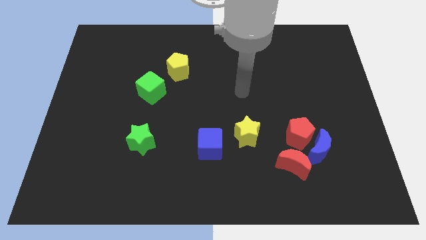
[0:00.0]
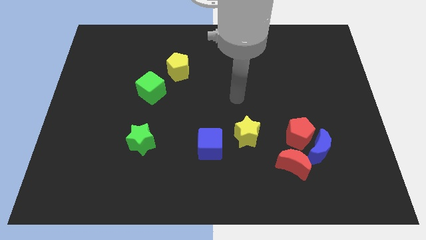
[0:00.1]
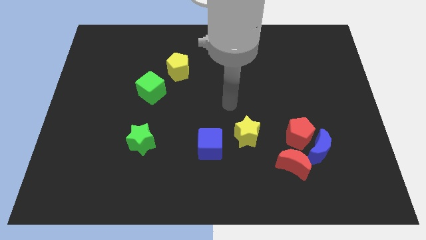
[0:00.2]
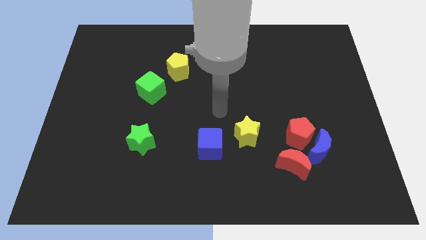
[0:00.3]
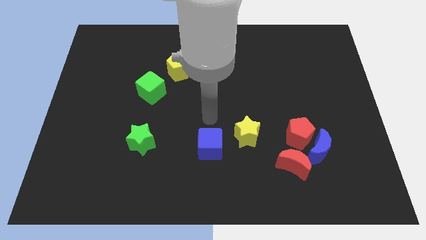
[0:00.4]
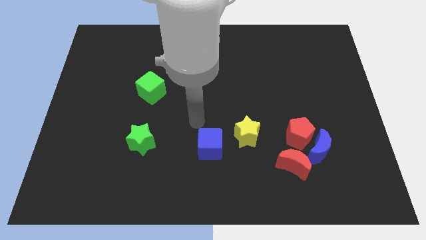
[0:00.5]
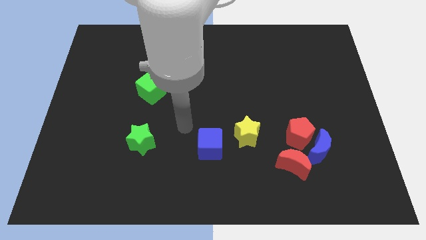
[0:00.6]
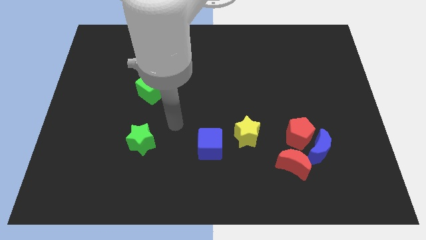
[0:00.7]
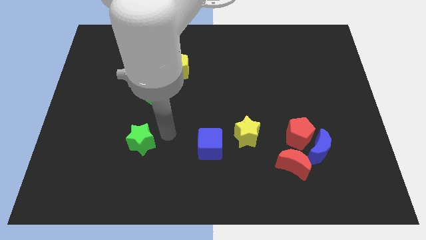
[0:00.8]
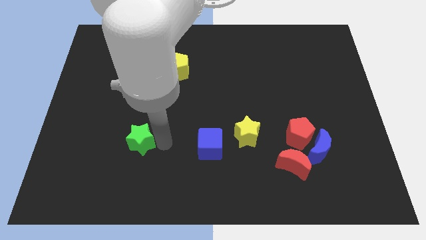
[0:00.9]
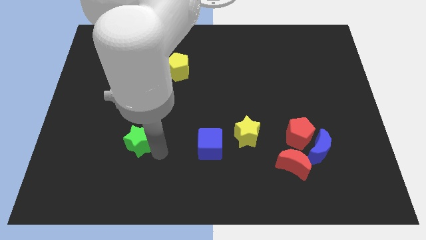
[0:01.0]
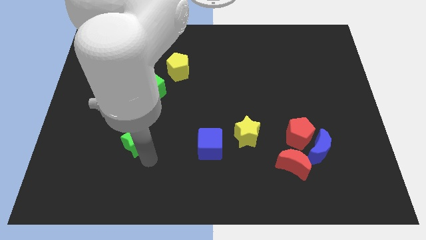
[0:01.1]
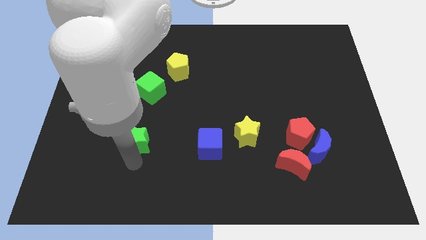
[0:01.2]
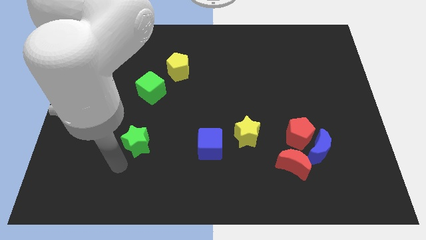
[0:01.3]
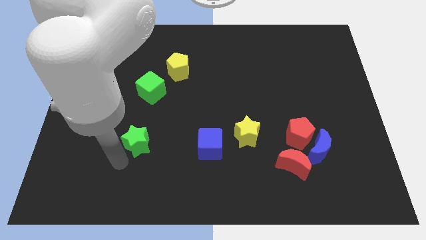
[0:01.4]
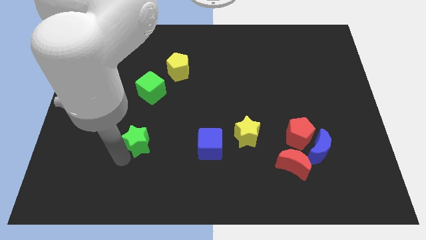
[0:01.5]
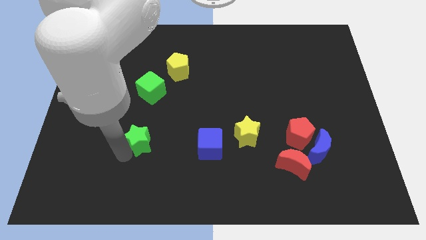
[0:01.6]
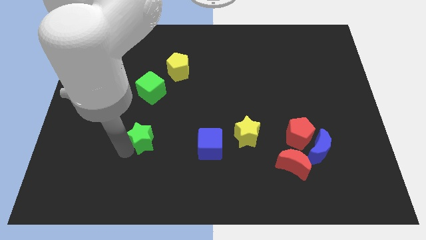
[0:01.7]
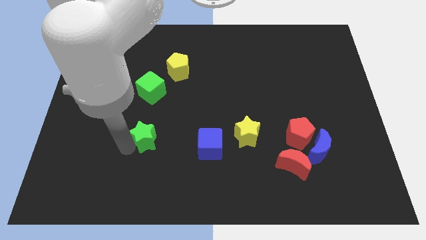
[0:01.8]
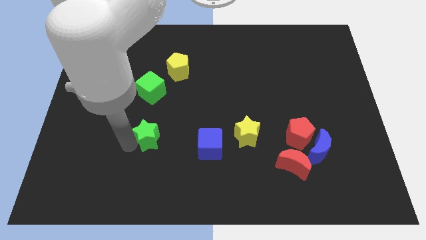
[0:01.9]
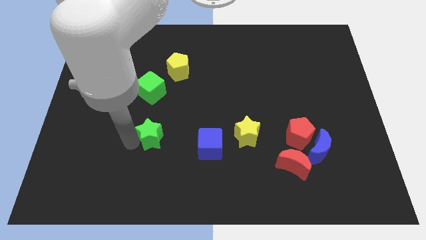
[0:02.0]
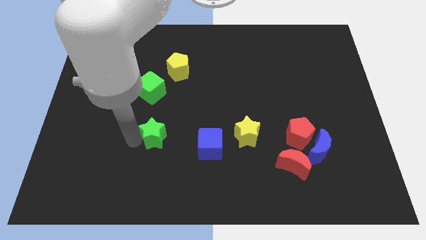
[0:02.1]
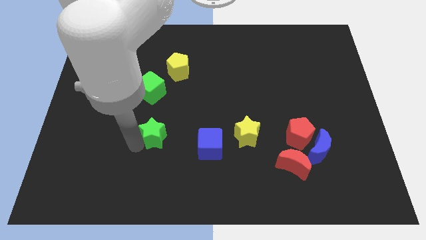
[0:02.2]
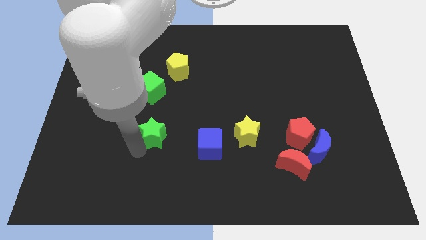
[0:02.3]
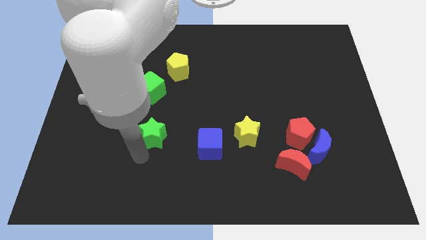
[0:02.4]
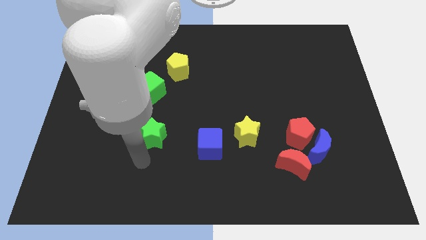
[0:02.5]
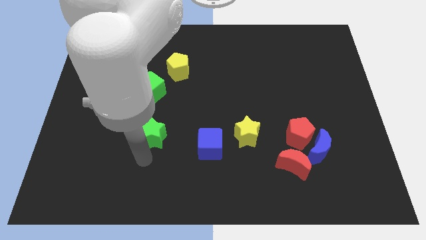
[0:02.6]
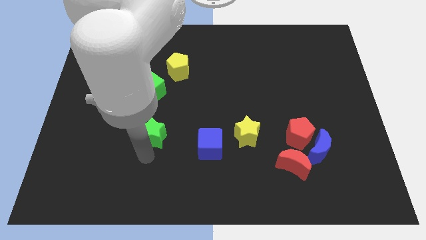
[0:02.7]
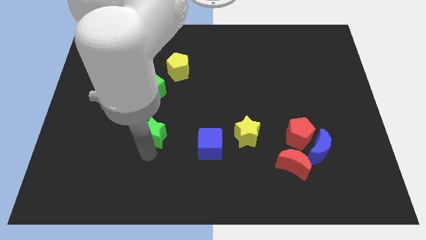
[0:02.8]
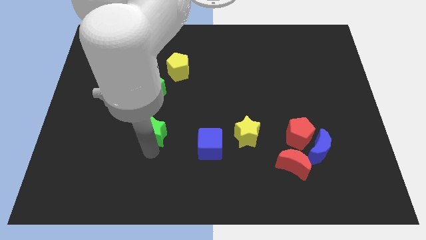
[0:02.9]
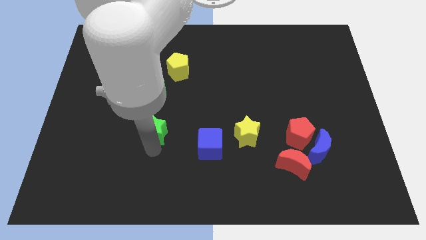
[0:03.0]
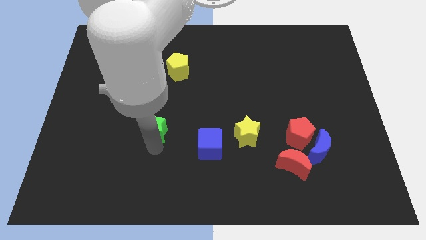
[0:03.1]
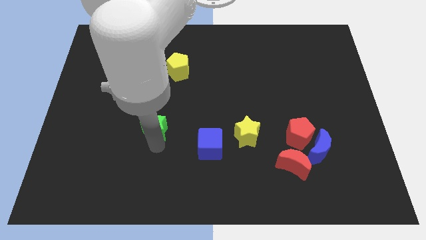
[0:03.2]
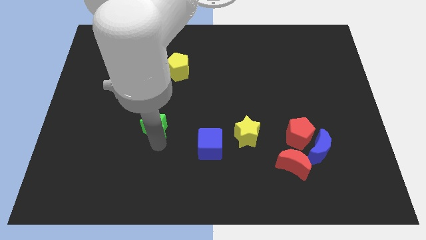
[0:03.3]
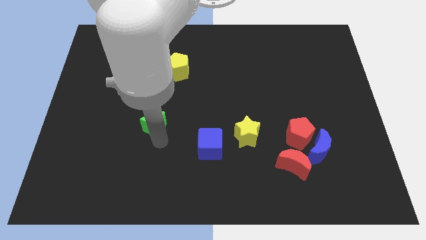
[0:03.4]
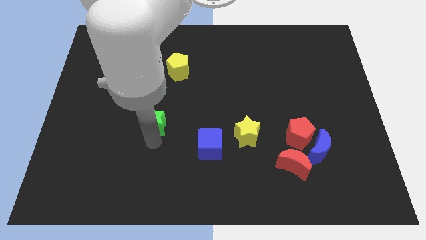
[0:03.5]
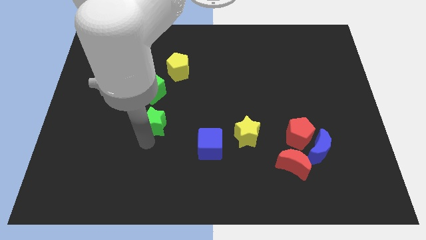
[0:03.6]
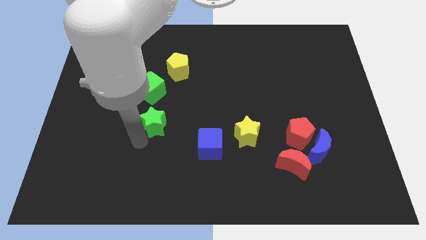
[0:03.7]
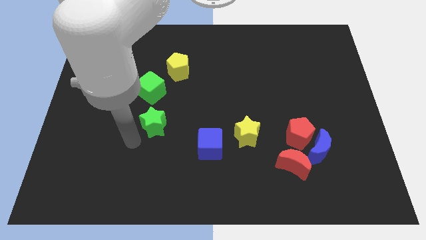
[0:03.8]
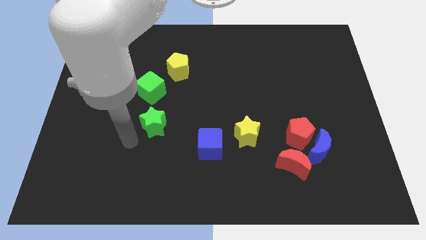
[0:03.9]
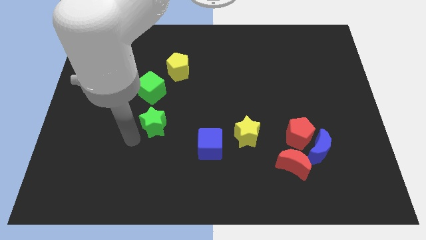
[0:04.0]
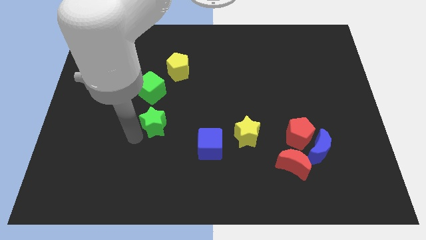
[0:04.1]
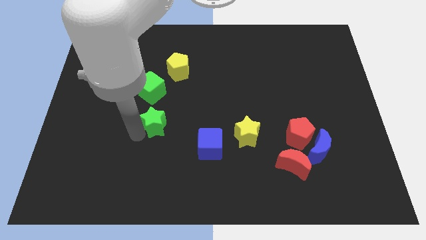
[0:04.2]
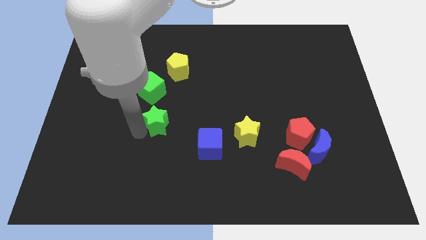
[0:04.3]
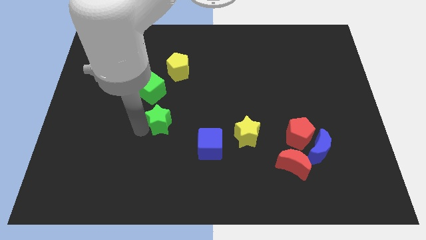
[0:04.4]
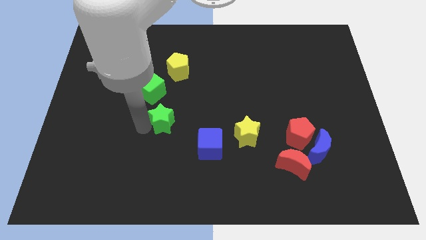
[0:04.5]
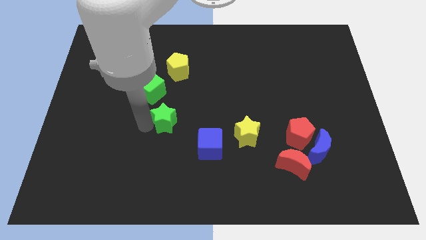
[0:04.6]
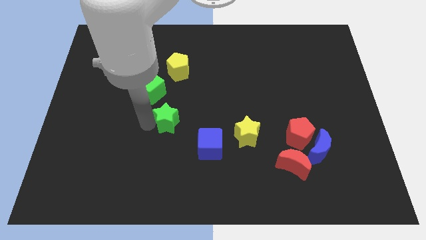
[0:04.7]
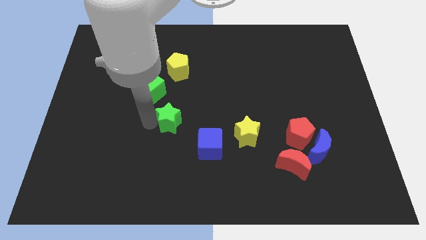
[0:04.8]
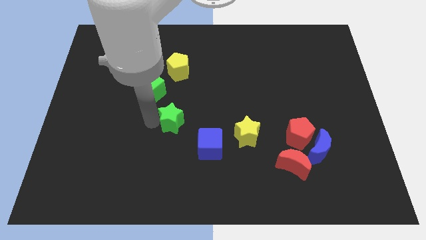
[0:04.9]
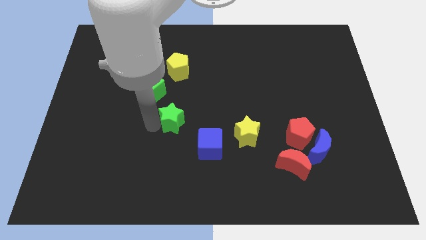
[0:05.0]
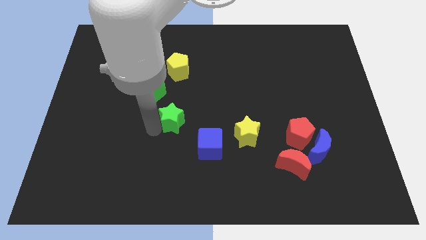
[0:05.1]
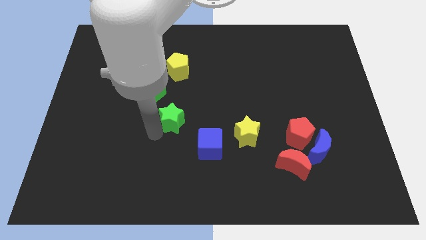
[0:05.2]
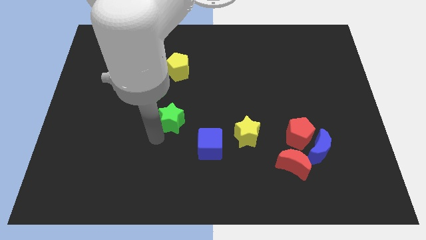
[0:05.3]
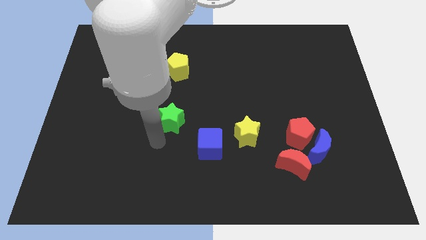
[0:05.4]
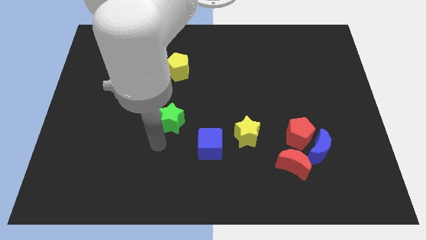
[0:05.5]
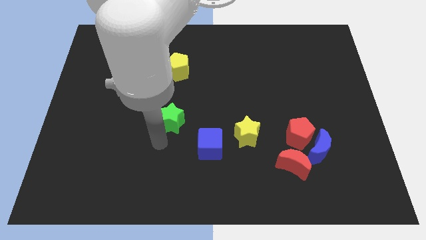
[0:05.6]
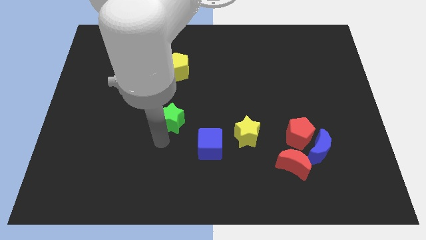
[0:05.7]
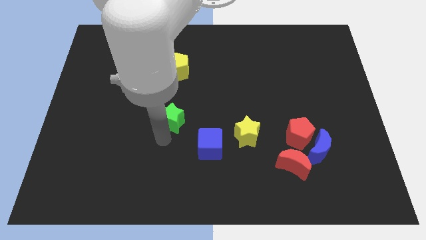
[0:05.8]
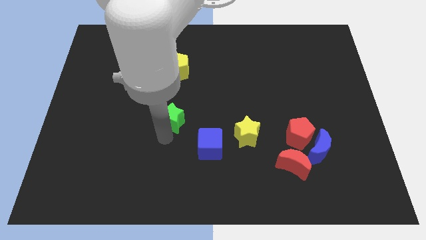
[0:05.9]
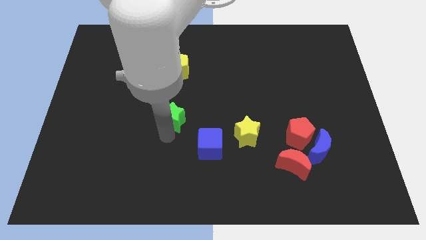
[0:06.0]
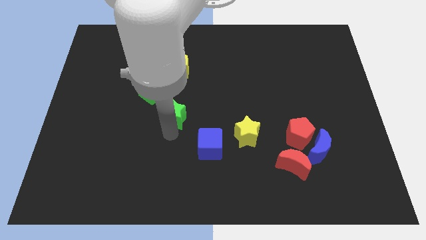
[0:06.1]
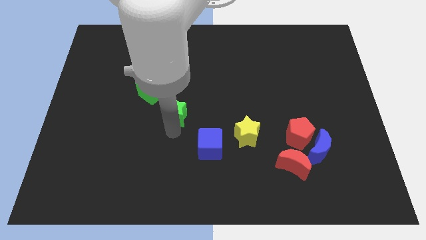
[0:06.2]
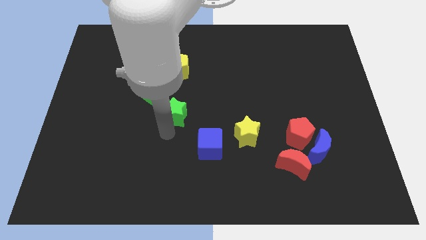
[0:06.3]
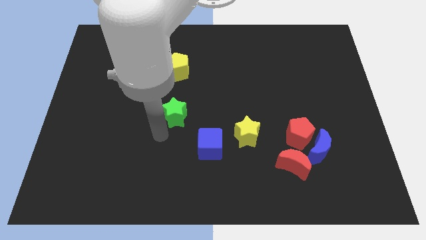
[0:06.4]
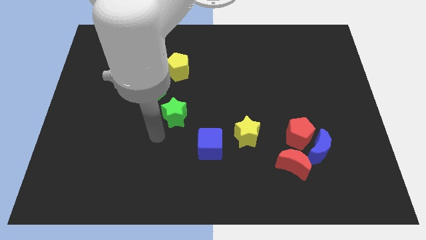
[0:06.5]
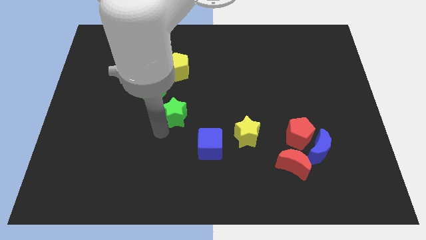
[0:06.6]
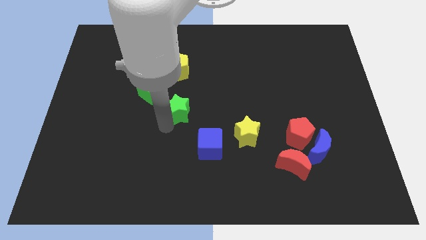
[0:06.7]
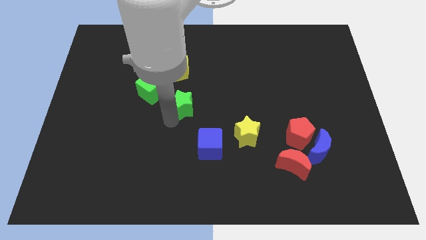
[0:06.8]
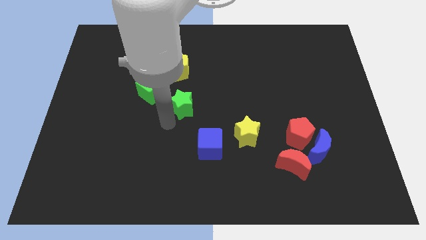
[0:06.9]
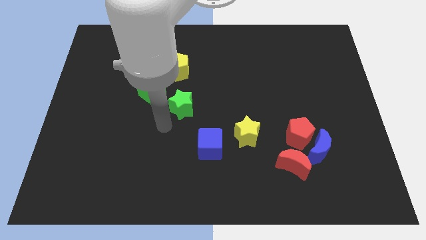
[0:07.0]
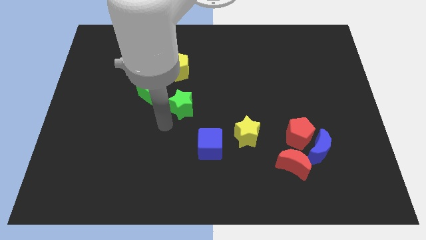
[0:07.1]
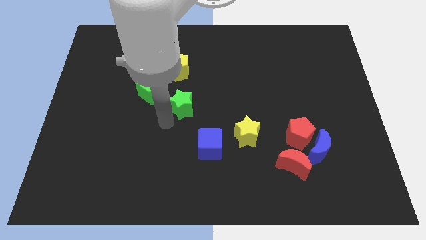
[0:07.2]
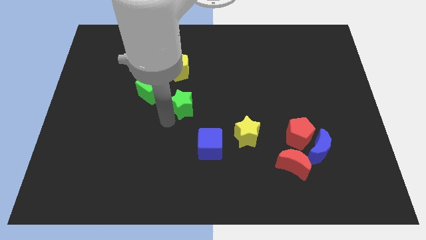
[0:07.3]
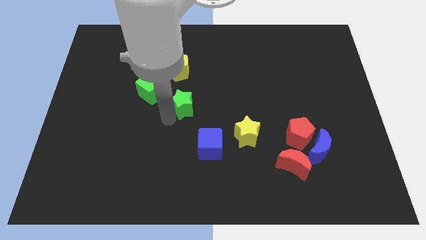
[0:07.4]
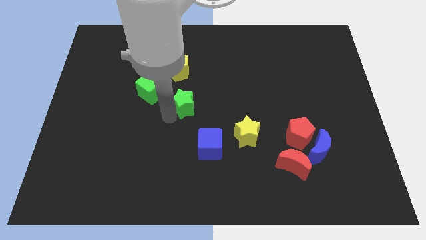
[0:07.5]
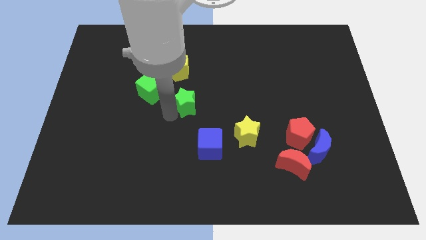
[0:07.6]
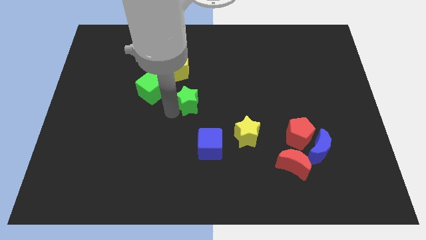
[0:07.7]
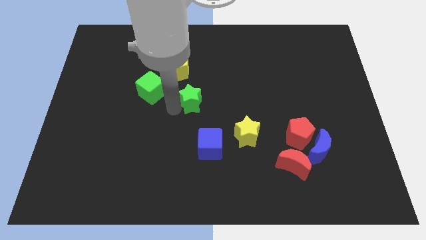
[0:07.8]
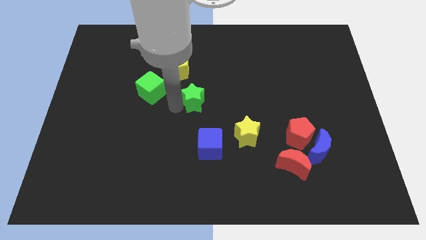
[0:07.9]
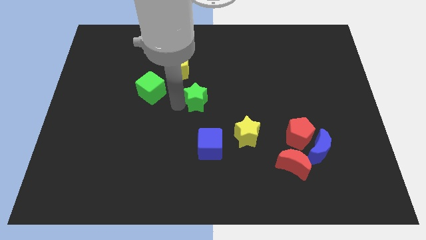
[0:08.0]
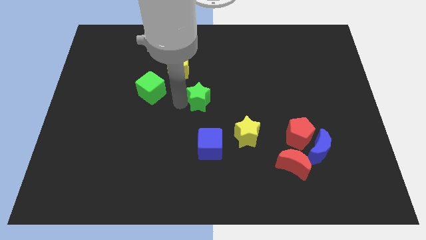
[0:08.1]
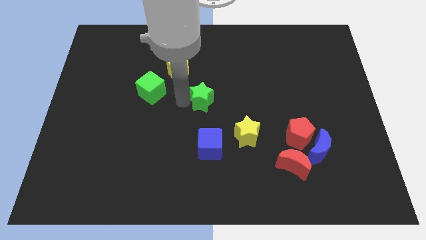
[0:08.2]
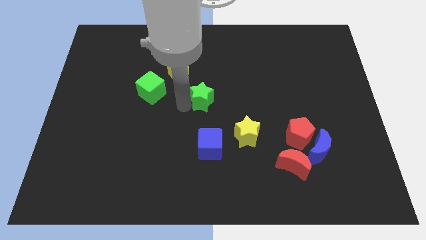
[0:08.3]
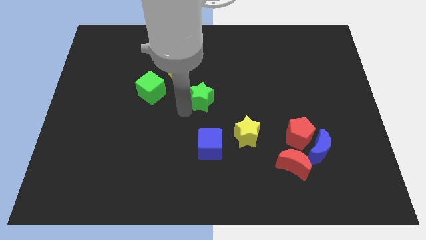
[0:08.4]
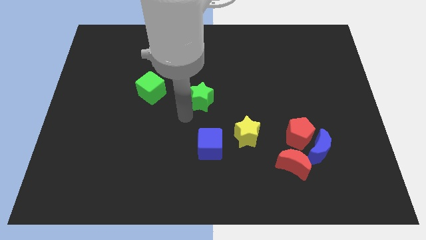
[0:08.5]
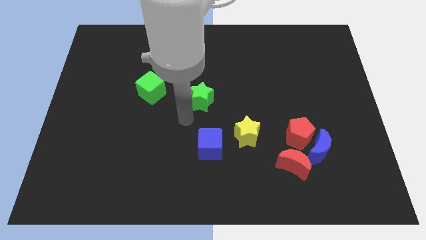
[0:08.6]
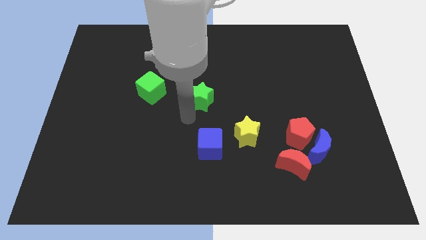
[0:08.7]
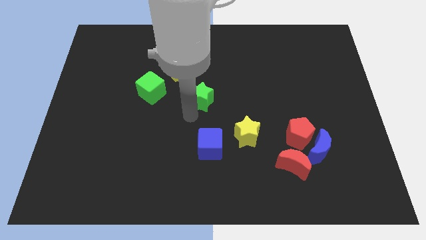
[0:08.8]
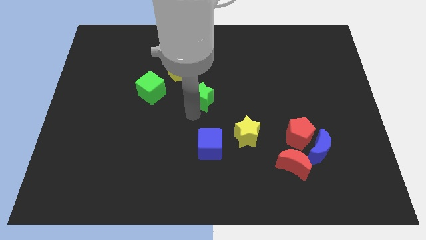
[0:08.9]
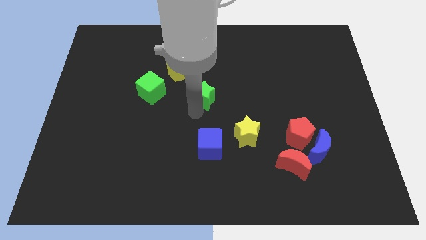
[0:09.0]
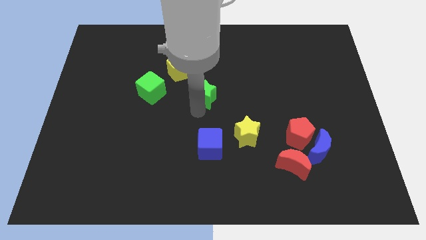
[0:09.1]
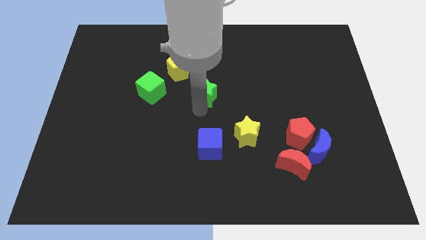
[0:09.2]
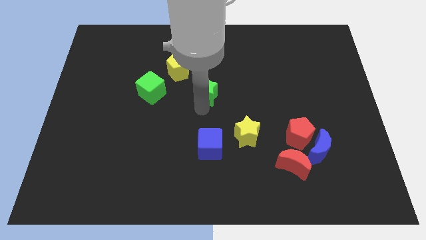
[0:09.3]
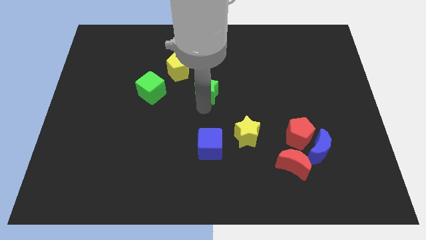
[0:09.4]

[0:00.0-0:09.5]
push the green star upwards and to the right
